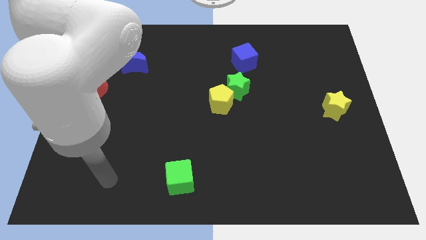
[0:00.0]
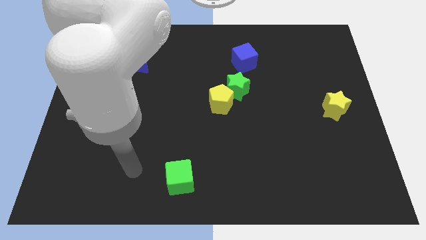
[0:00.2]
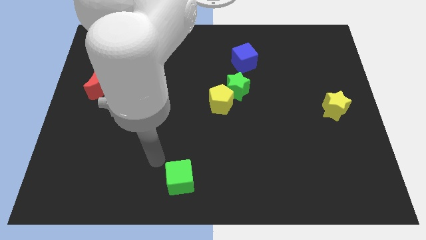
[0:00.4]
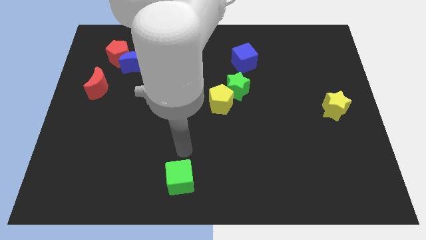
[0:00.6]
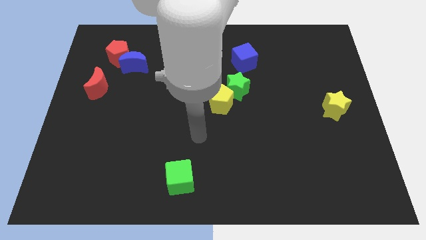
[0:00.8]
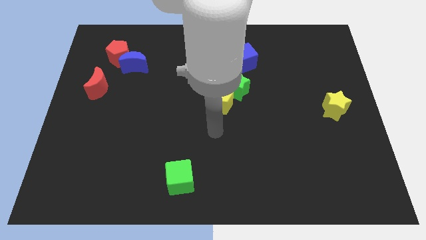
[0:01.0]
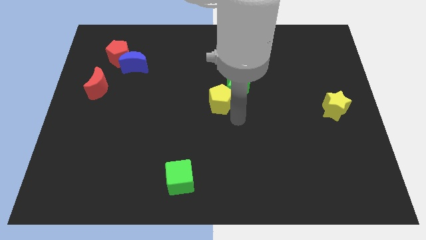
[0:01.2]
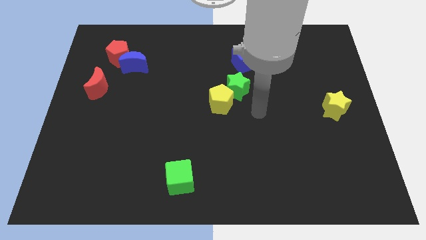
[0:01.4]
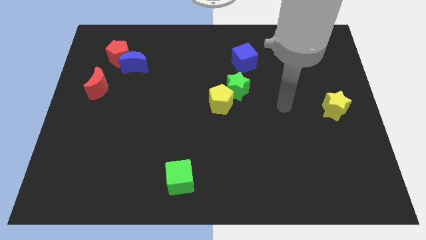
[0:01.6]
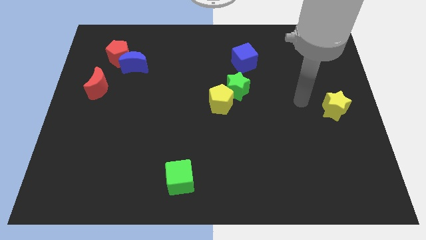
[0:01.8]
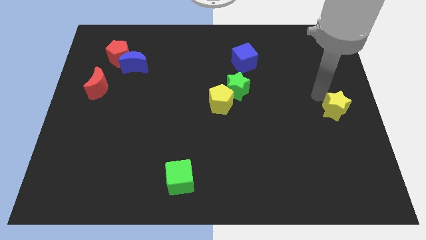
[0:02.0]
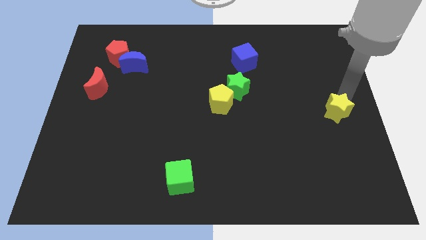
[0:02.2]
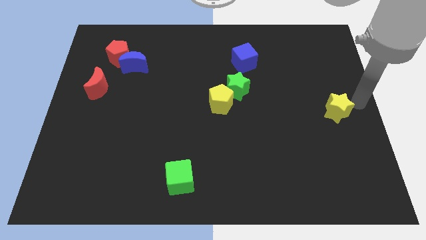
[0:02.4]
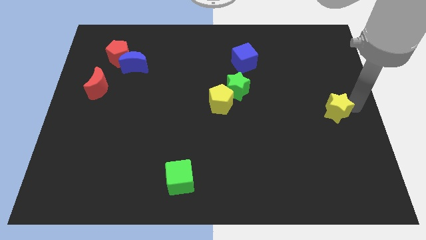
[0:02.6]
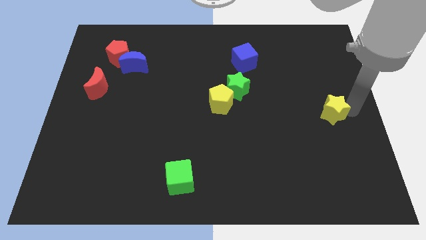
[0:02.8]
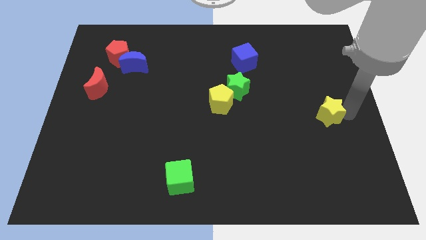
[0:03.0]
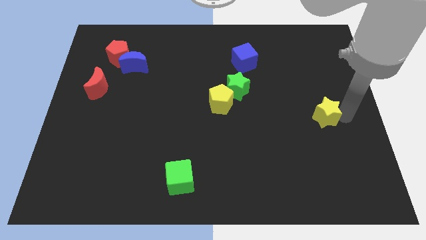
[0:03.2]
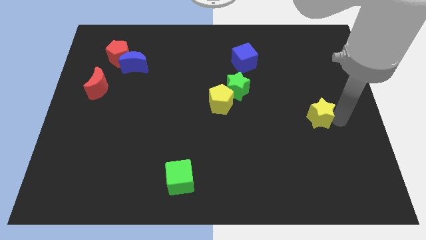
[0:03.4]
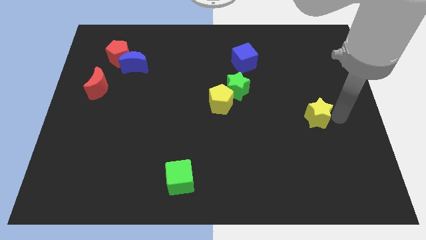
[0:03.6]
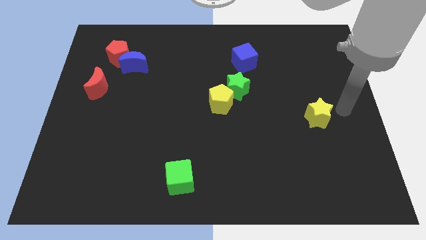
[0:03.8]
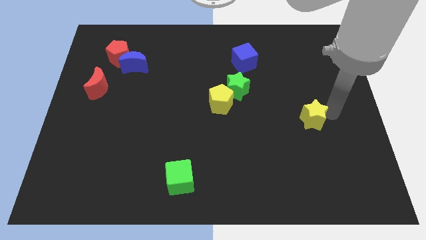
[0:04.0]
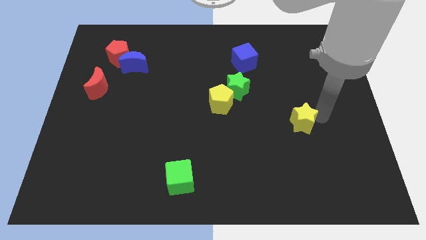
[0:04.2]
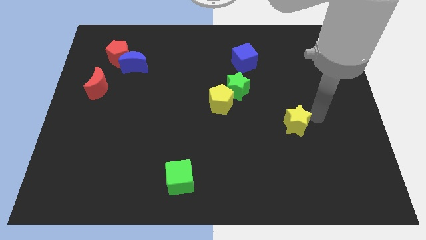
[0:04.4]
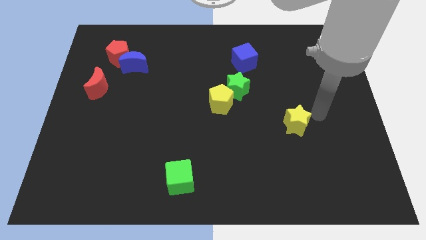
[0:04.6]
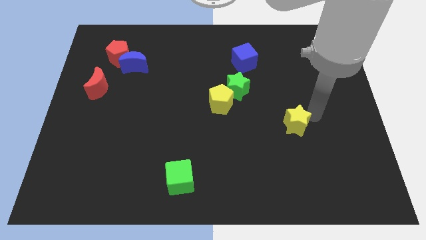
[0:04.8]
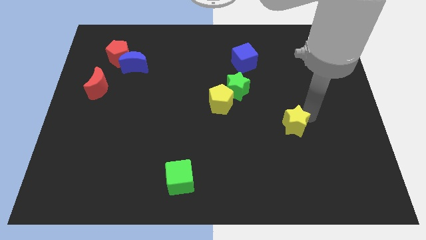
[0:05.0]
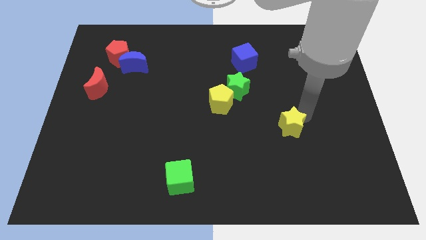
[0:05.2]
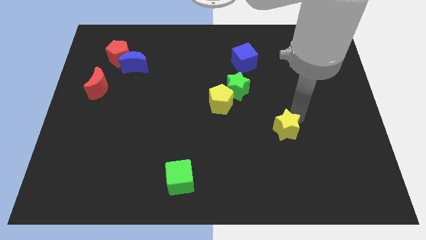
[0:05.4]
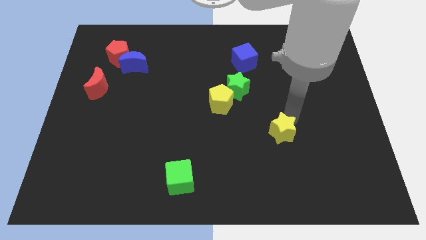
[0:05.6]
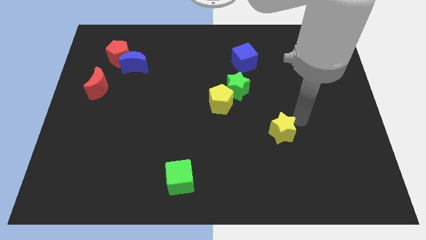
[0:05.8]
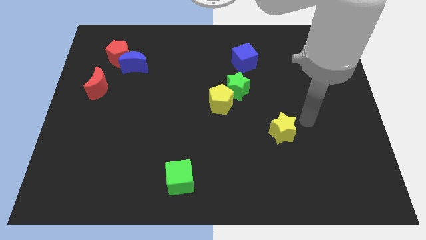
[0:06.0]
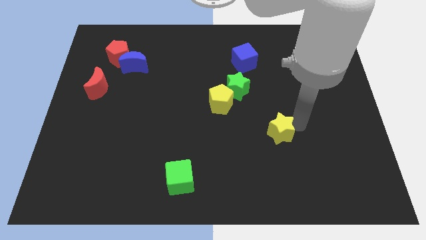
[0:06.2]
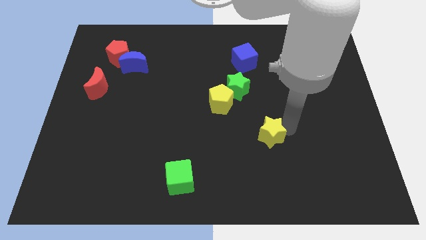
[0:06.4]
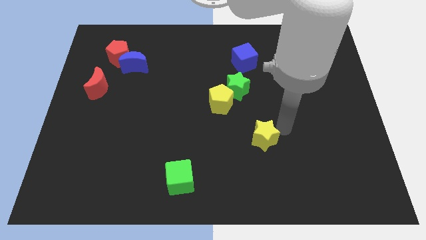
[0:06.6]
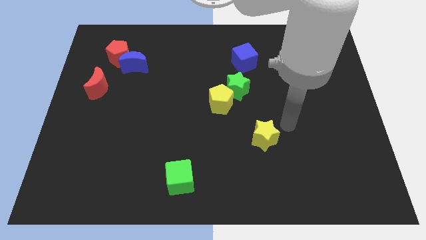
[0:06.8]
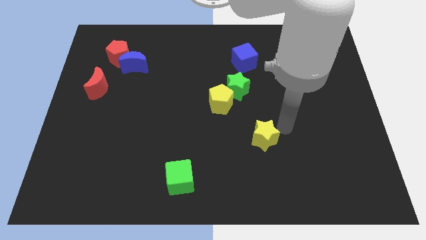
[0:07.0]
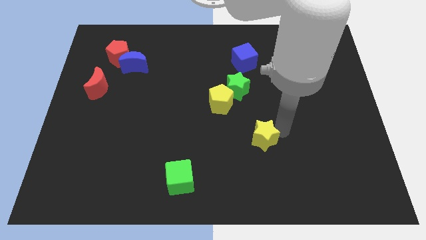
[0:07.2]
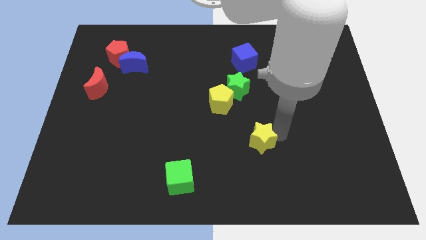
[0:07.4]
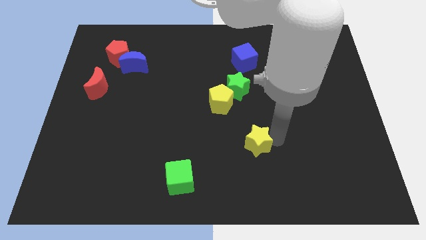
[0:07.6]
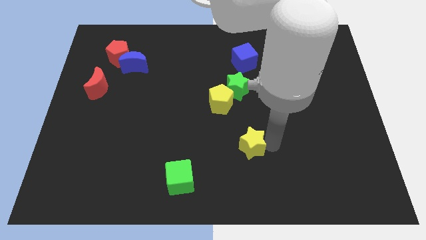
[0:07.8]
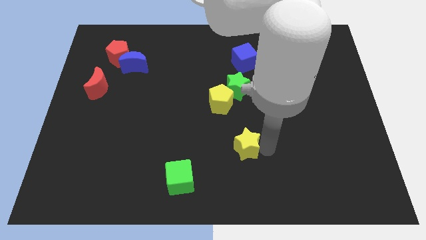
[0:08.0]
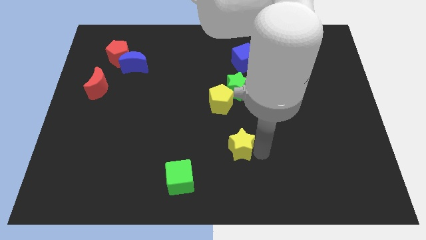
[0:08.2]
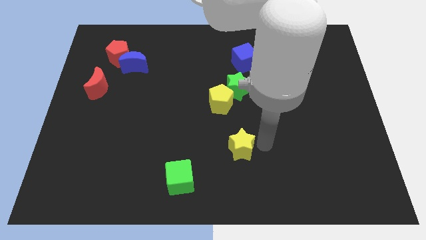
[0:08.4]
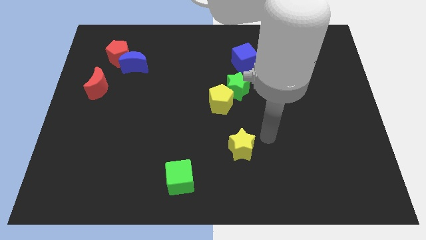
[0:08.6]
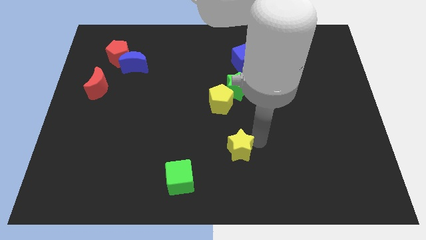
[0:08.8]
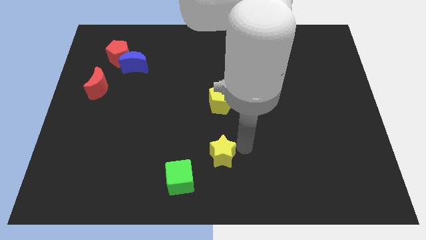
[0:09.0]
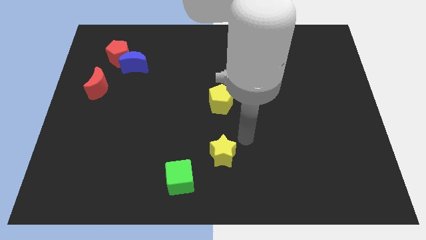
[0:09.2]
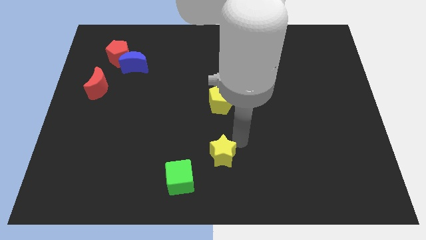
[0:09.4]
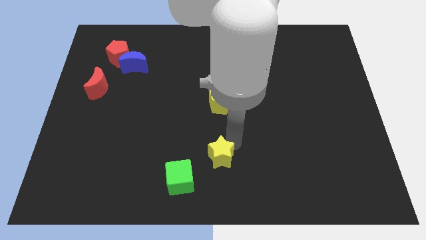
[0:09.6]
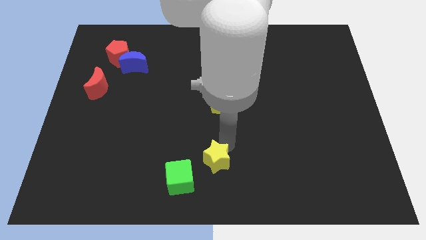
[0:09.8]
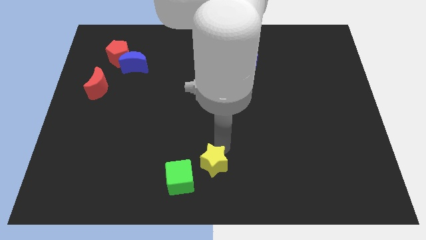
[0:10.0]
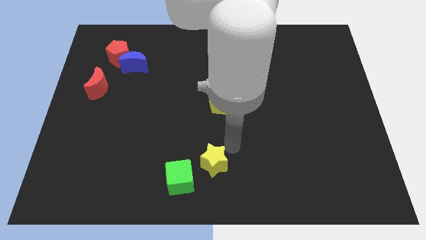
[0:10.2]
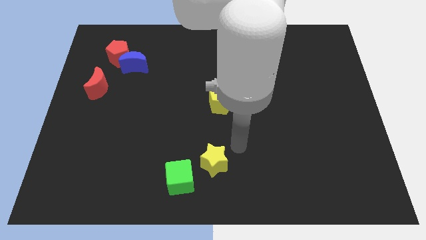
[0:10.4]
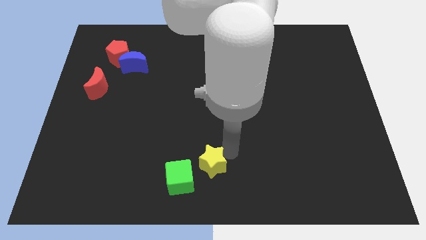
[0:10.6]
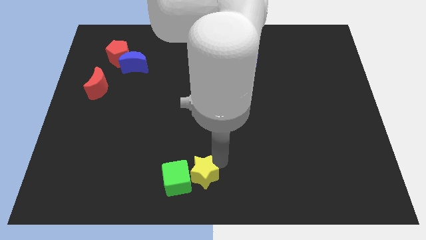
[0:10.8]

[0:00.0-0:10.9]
put the yellow star to the green cube

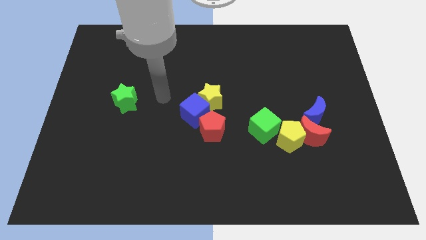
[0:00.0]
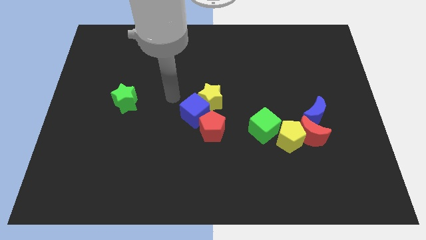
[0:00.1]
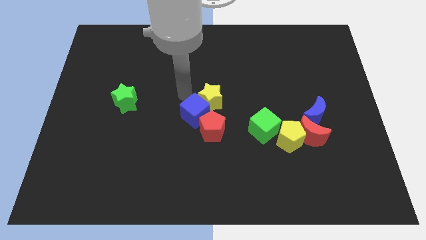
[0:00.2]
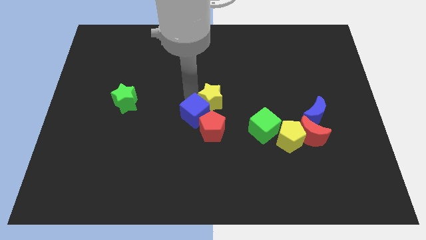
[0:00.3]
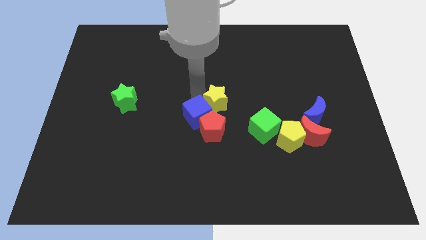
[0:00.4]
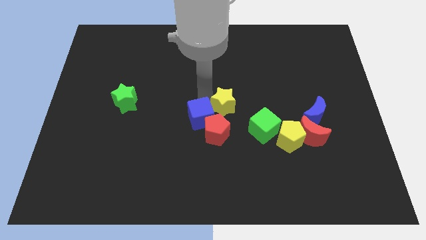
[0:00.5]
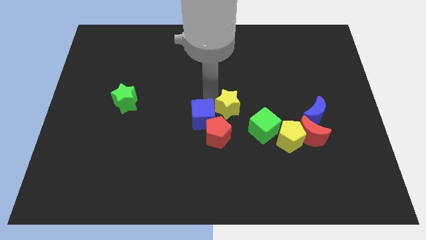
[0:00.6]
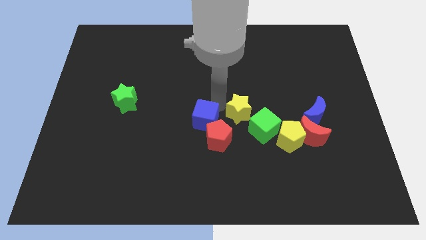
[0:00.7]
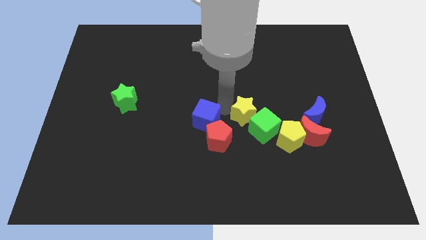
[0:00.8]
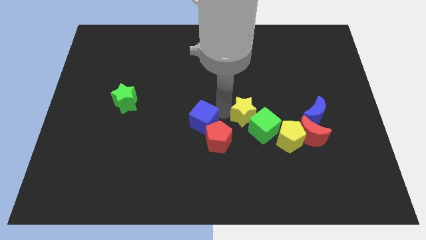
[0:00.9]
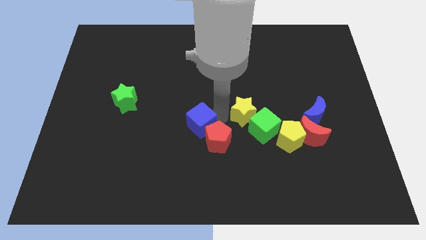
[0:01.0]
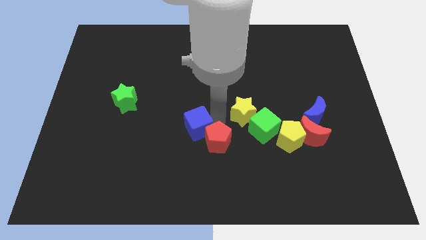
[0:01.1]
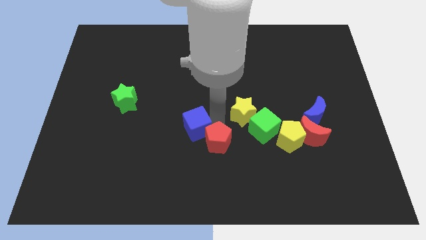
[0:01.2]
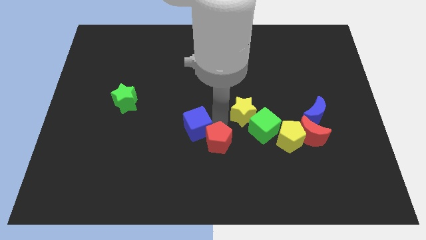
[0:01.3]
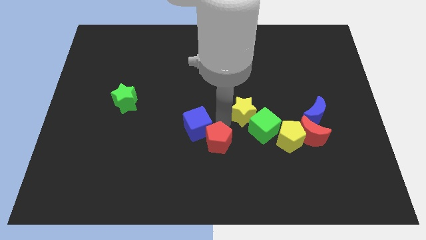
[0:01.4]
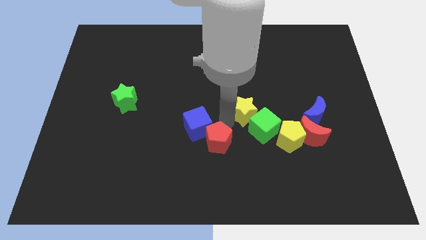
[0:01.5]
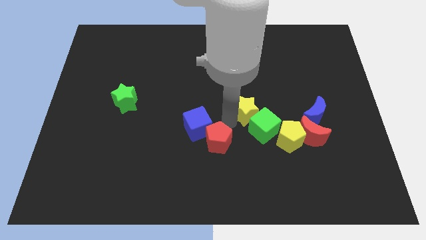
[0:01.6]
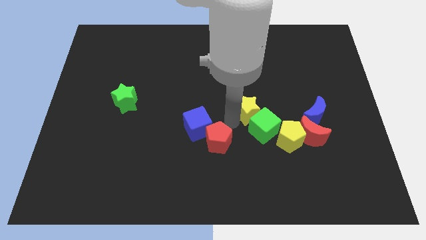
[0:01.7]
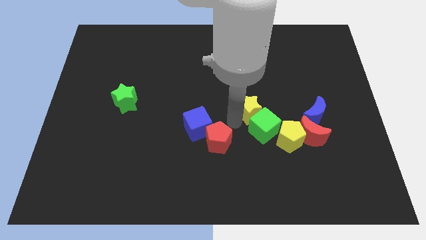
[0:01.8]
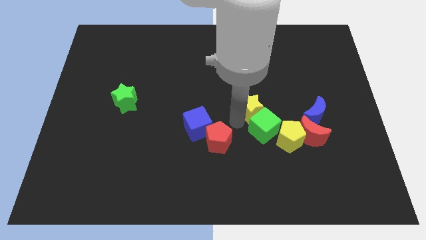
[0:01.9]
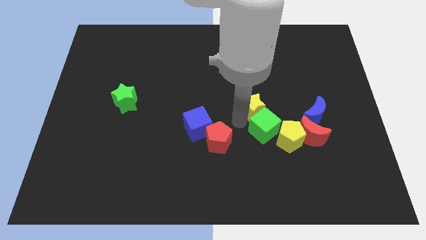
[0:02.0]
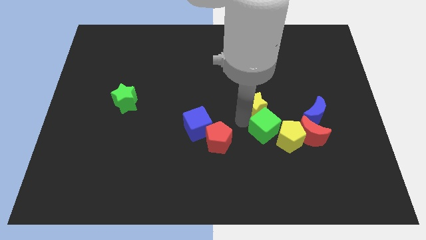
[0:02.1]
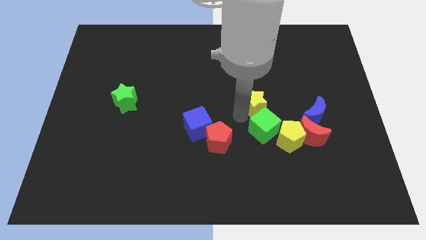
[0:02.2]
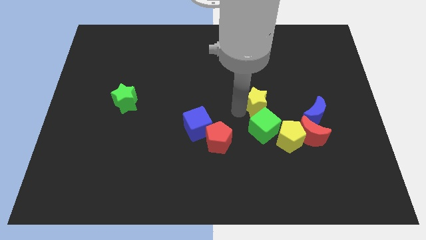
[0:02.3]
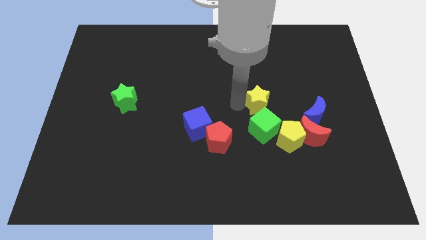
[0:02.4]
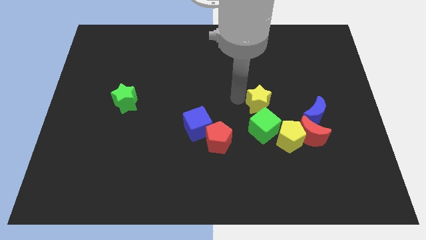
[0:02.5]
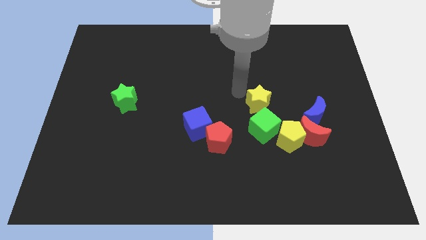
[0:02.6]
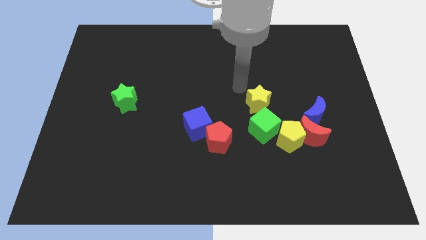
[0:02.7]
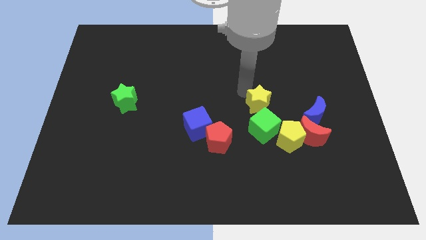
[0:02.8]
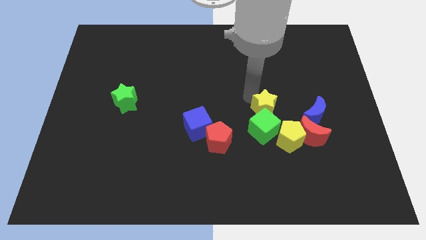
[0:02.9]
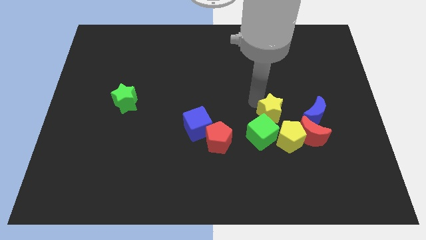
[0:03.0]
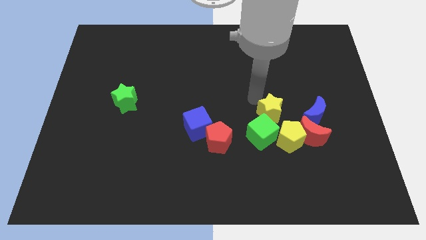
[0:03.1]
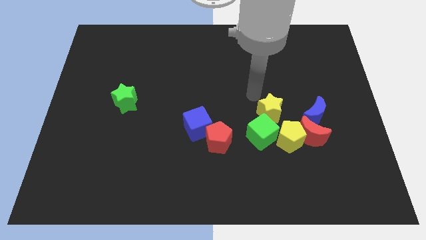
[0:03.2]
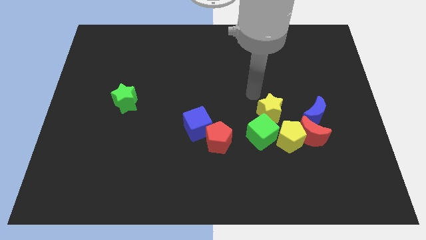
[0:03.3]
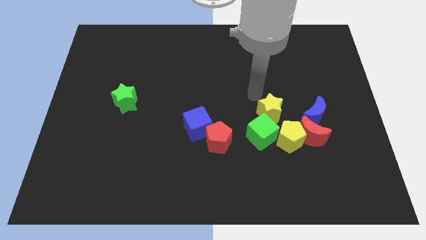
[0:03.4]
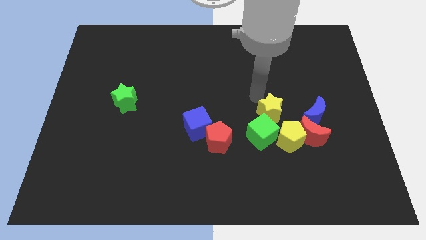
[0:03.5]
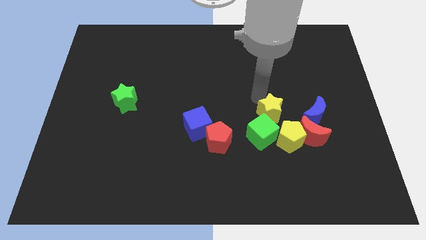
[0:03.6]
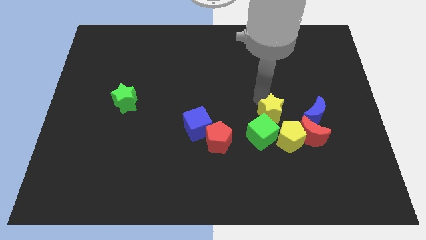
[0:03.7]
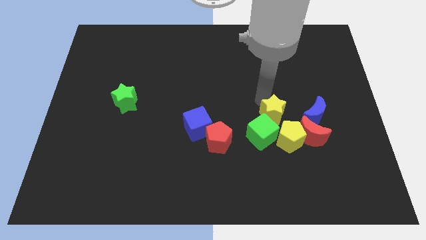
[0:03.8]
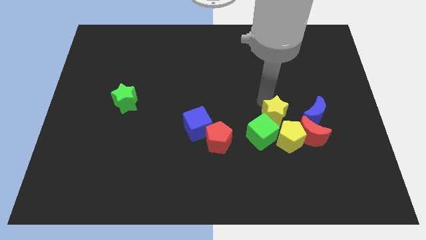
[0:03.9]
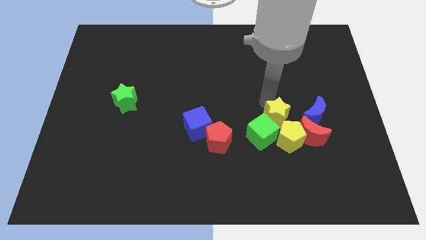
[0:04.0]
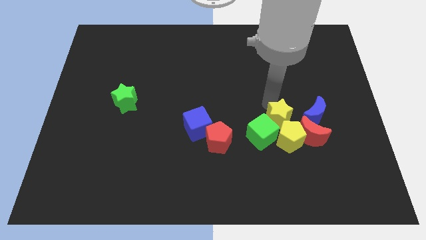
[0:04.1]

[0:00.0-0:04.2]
move the yellow star close to the yellow pentagon
